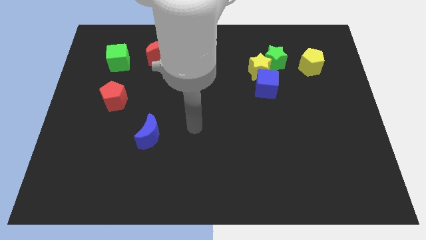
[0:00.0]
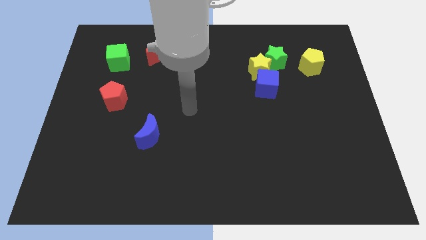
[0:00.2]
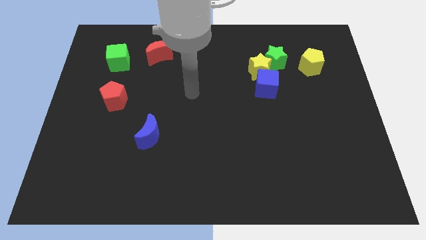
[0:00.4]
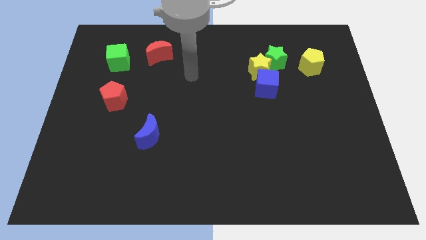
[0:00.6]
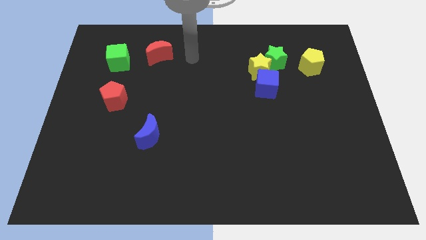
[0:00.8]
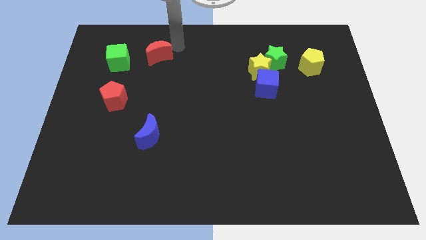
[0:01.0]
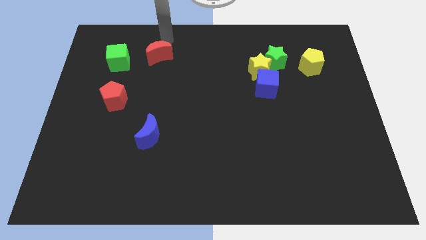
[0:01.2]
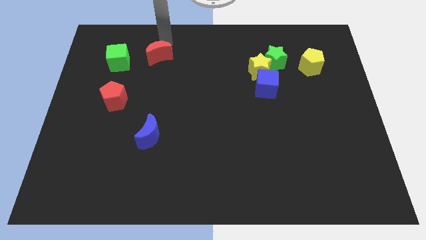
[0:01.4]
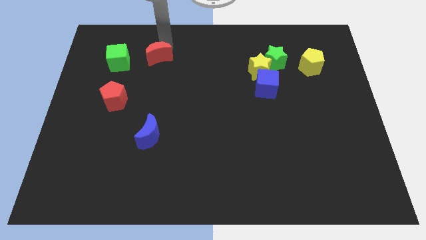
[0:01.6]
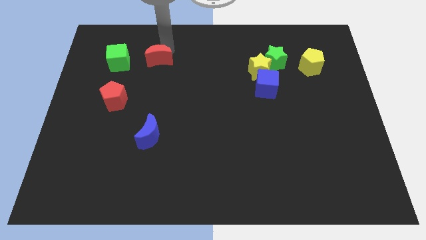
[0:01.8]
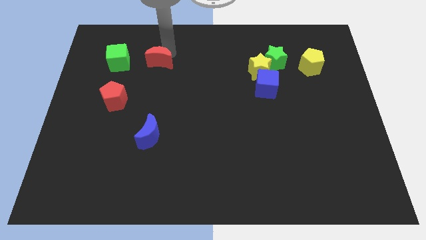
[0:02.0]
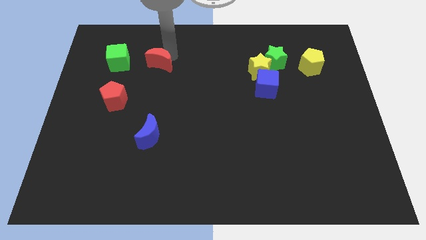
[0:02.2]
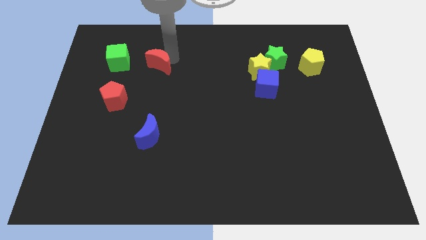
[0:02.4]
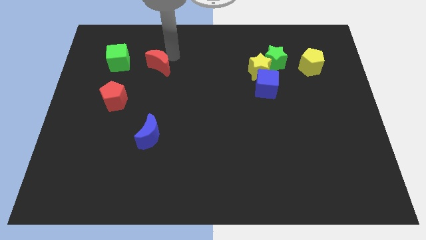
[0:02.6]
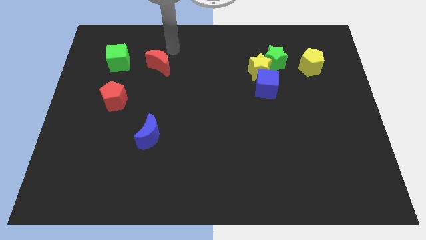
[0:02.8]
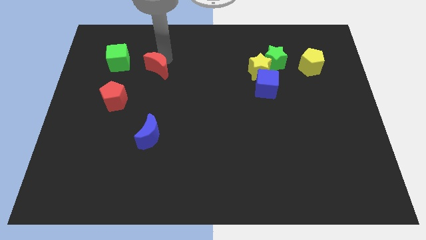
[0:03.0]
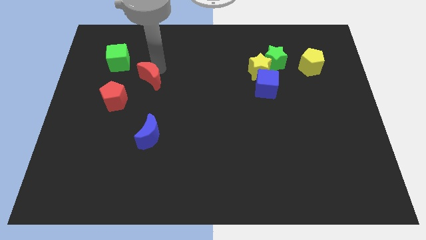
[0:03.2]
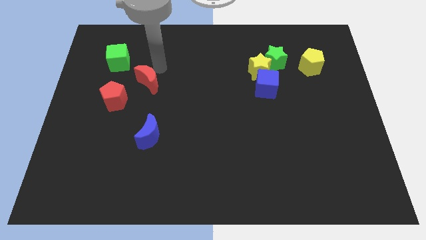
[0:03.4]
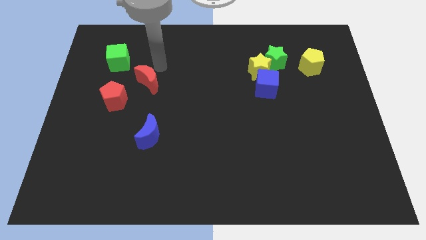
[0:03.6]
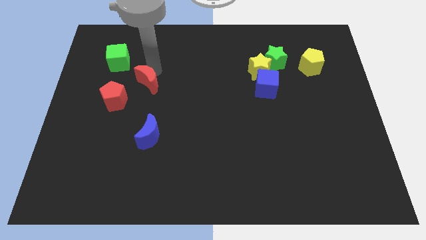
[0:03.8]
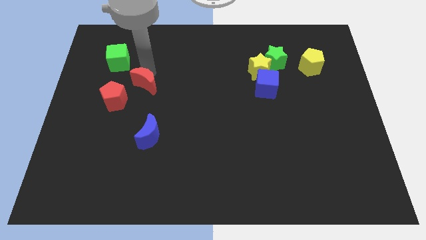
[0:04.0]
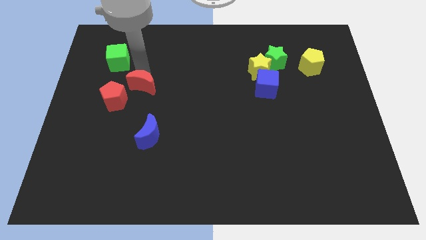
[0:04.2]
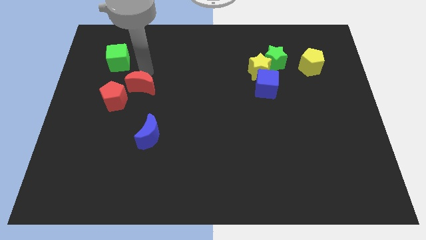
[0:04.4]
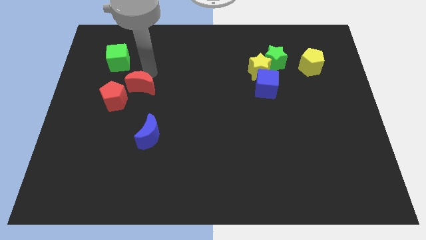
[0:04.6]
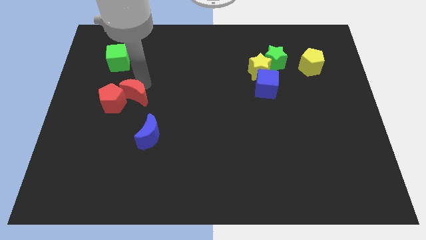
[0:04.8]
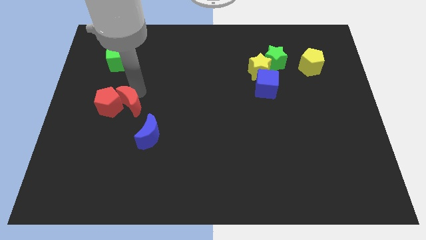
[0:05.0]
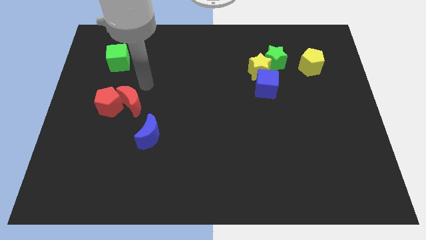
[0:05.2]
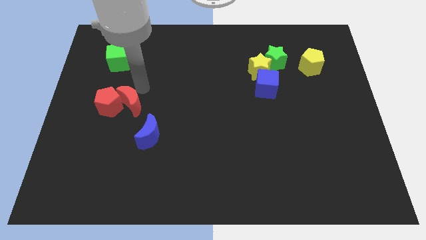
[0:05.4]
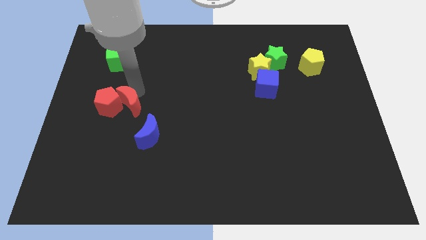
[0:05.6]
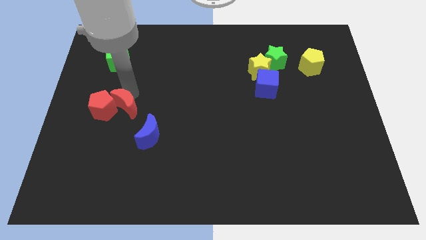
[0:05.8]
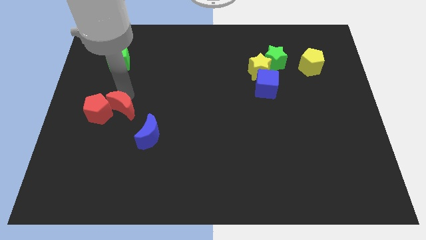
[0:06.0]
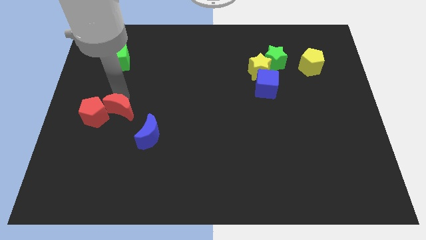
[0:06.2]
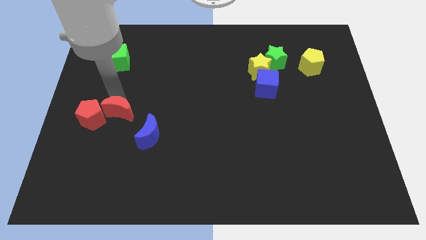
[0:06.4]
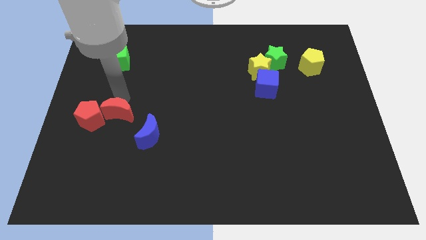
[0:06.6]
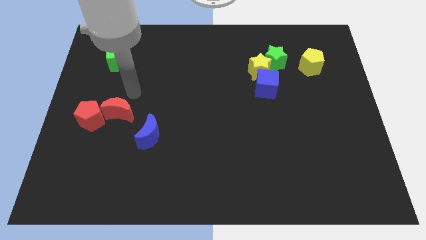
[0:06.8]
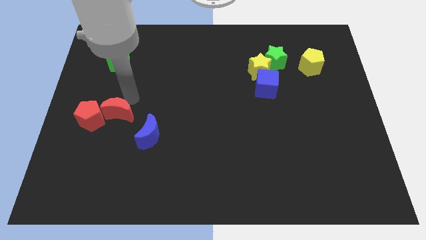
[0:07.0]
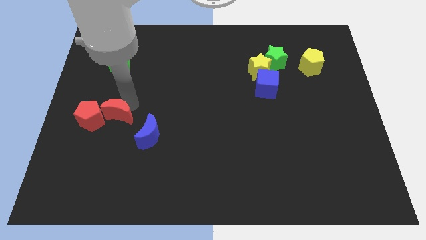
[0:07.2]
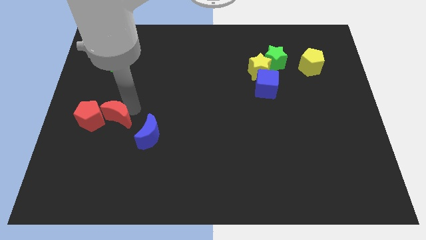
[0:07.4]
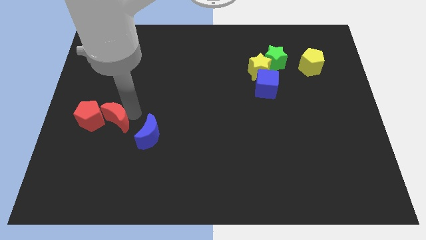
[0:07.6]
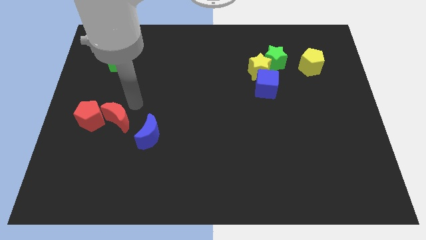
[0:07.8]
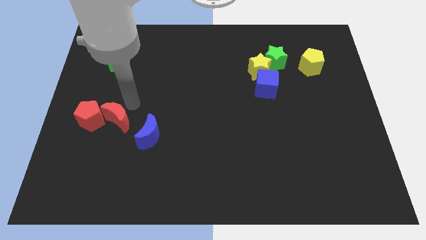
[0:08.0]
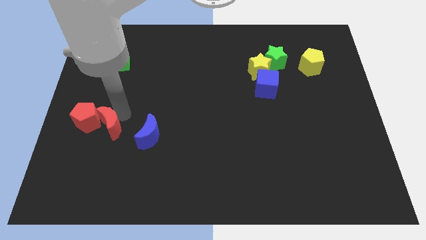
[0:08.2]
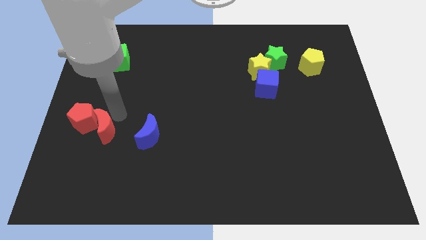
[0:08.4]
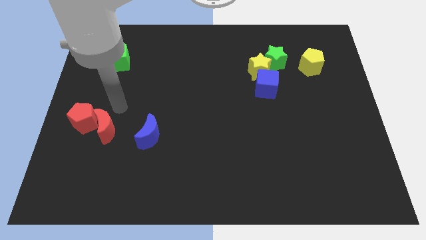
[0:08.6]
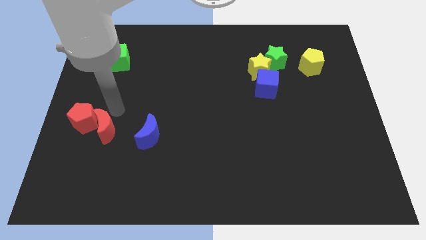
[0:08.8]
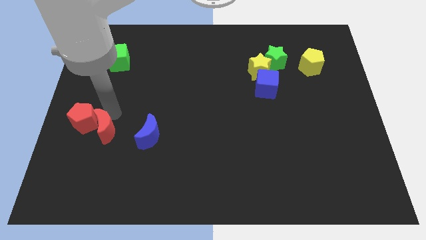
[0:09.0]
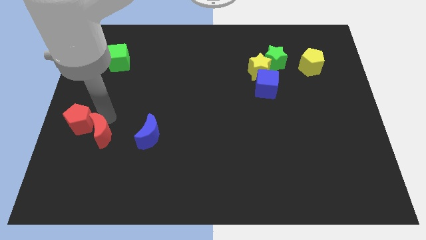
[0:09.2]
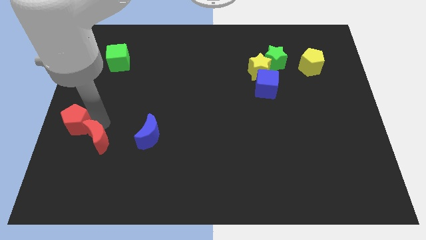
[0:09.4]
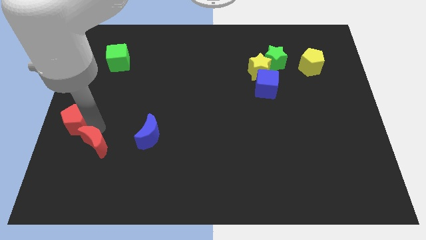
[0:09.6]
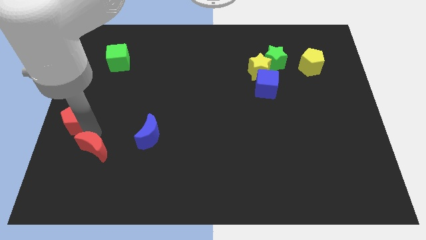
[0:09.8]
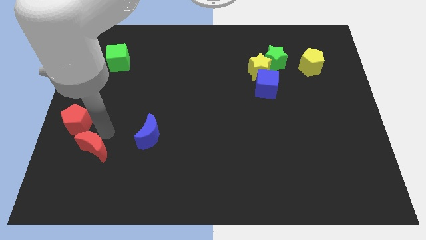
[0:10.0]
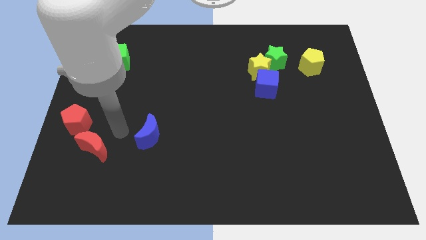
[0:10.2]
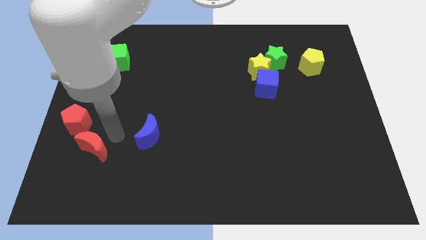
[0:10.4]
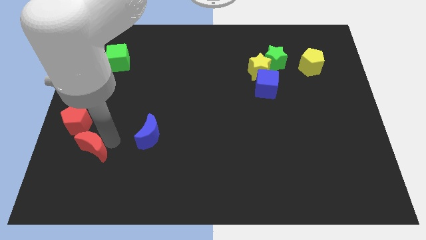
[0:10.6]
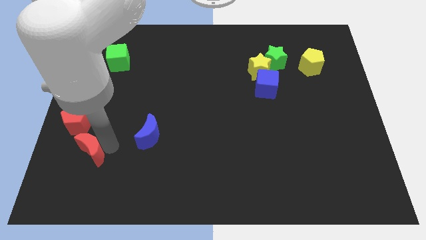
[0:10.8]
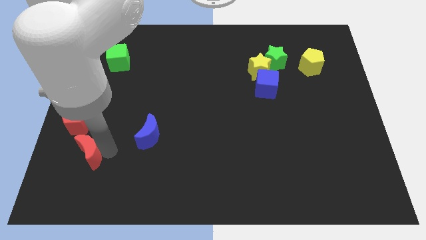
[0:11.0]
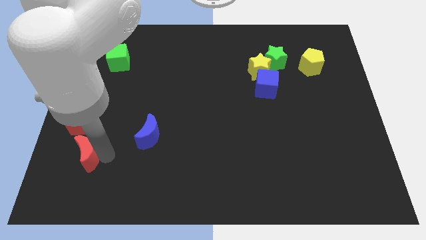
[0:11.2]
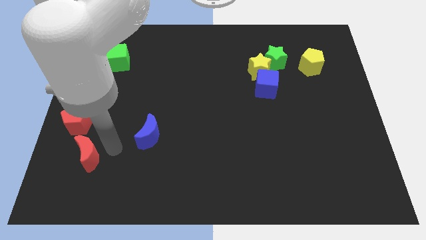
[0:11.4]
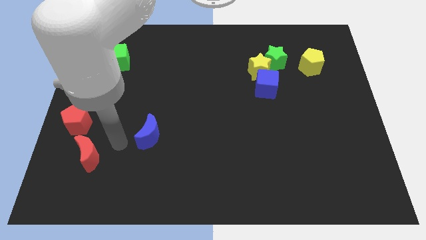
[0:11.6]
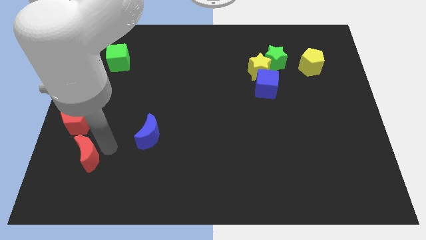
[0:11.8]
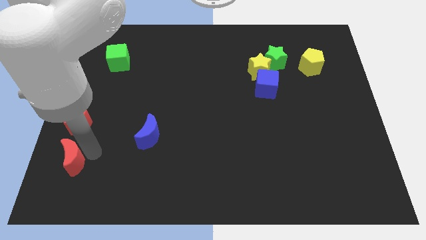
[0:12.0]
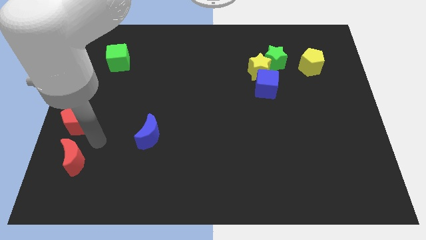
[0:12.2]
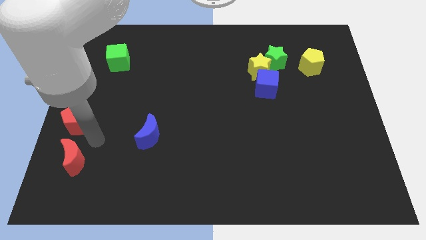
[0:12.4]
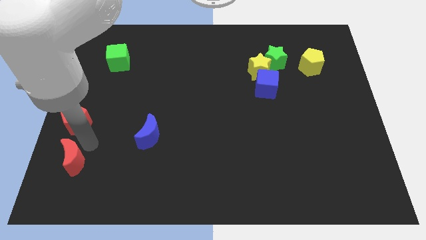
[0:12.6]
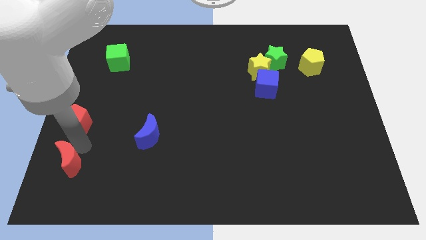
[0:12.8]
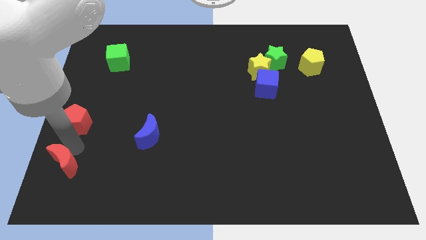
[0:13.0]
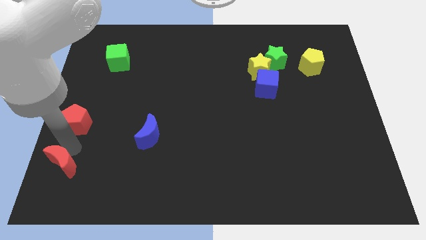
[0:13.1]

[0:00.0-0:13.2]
move the red moon to the bottom left of the board
